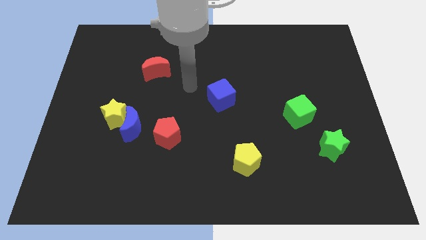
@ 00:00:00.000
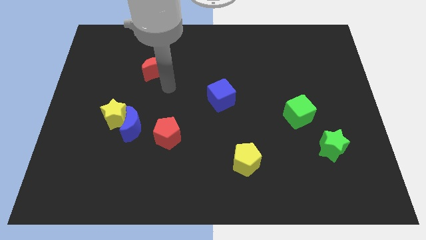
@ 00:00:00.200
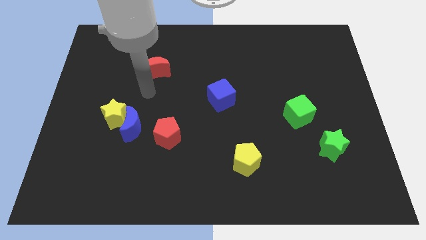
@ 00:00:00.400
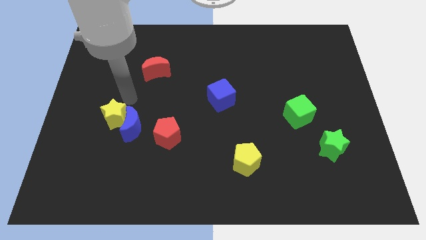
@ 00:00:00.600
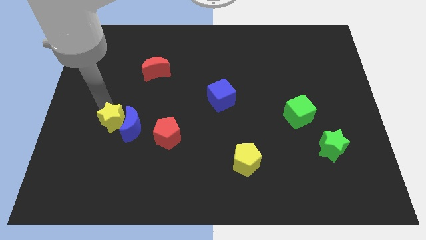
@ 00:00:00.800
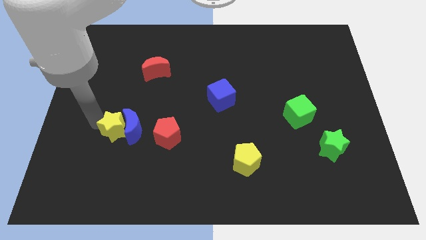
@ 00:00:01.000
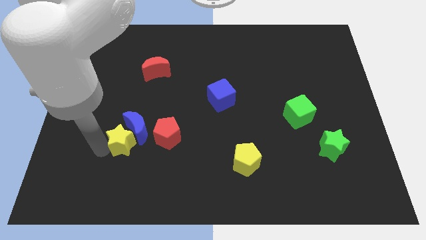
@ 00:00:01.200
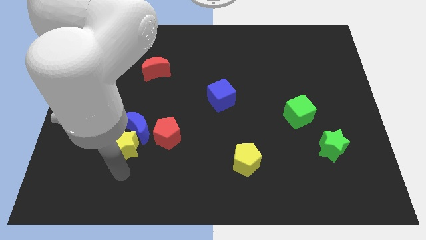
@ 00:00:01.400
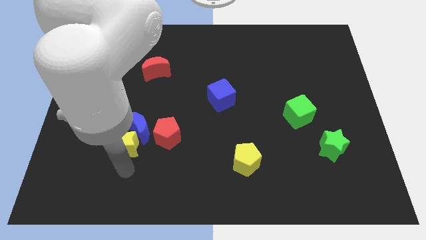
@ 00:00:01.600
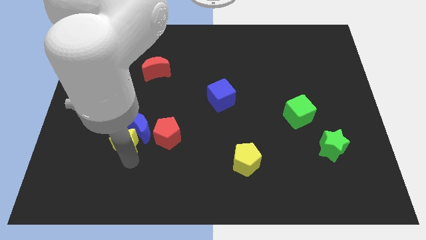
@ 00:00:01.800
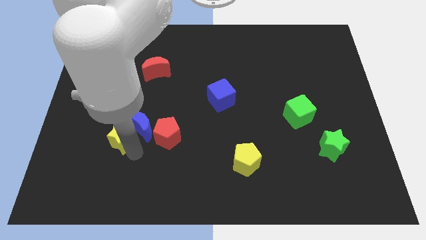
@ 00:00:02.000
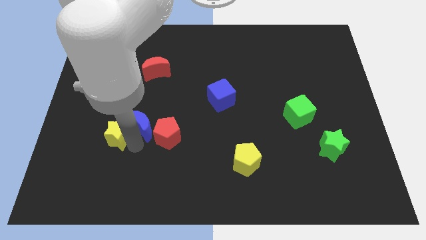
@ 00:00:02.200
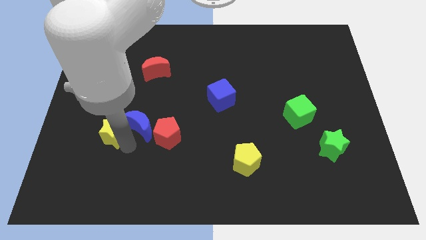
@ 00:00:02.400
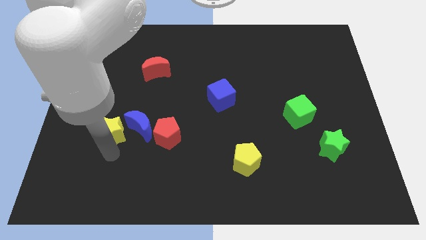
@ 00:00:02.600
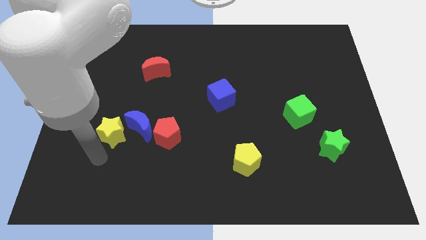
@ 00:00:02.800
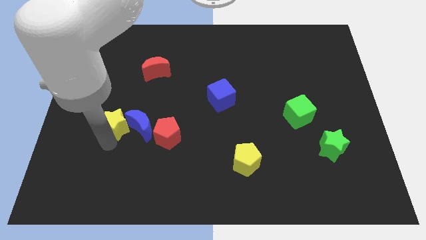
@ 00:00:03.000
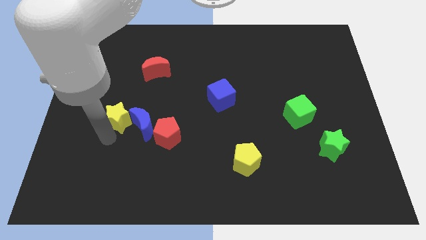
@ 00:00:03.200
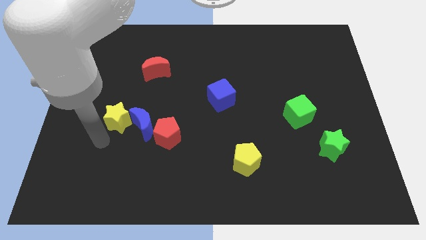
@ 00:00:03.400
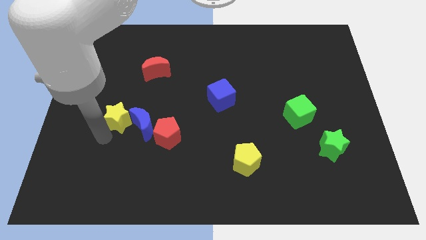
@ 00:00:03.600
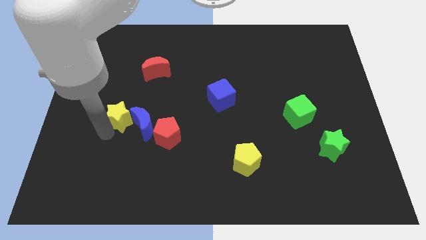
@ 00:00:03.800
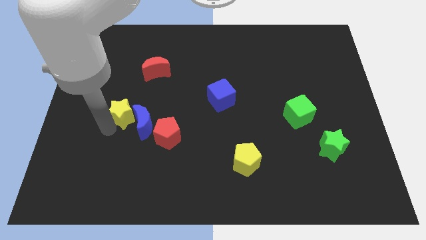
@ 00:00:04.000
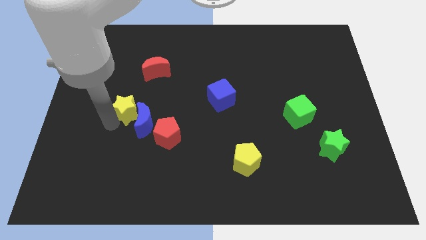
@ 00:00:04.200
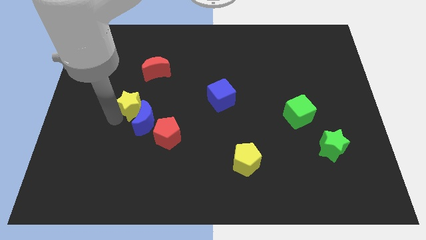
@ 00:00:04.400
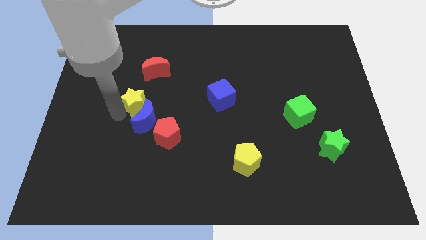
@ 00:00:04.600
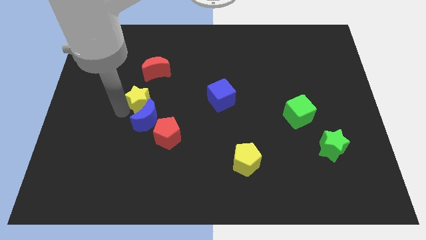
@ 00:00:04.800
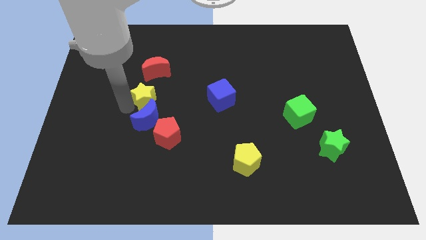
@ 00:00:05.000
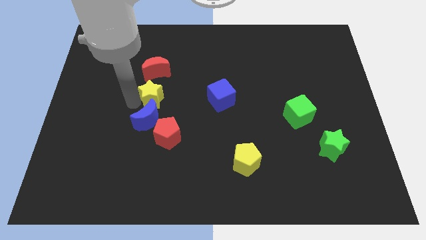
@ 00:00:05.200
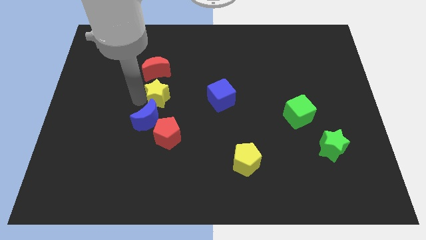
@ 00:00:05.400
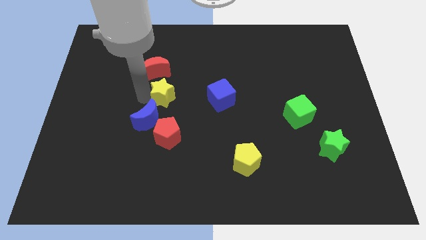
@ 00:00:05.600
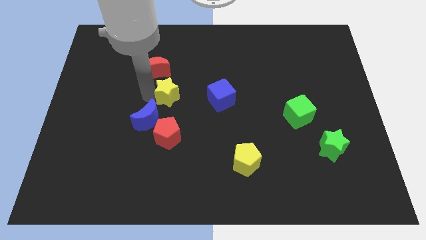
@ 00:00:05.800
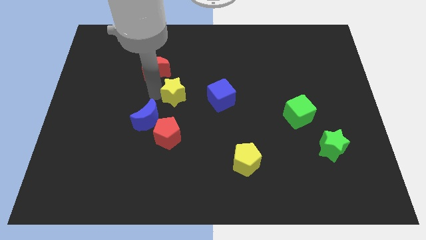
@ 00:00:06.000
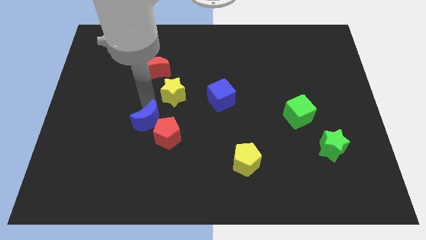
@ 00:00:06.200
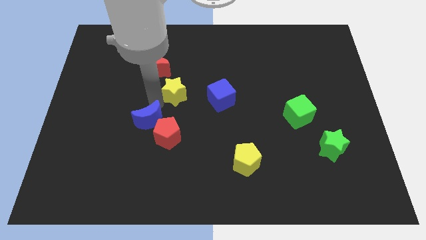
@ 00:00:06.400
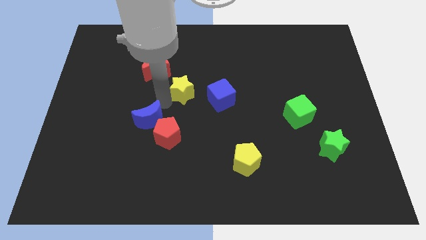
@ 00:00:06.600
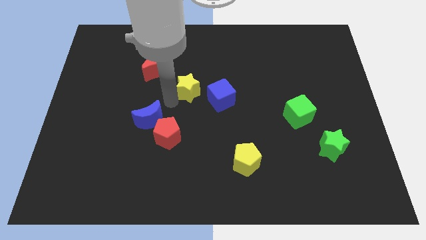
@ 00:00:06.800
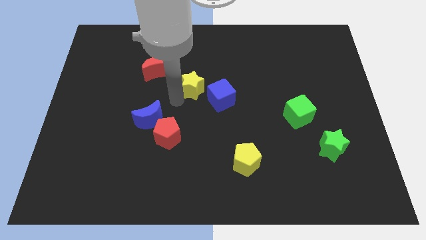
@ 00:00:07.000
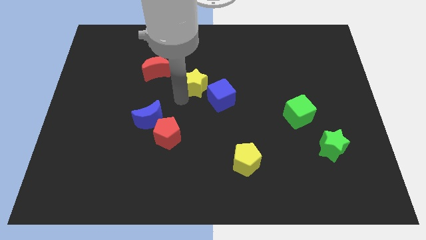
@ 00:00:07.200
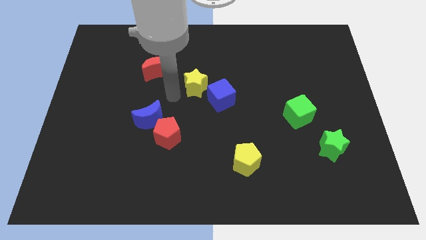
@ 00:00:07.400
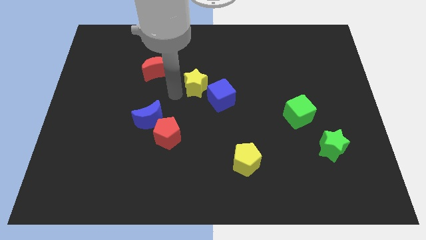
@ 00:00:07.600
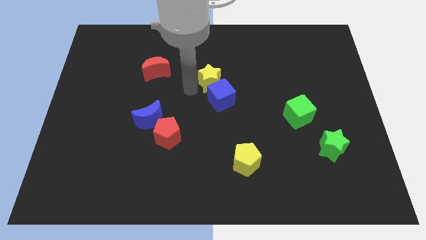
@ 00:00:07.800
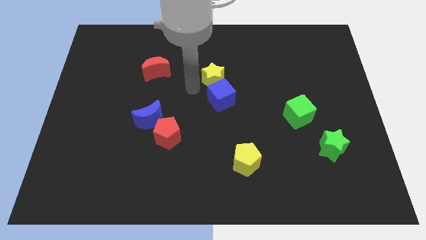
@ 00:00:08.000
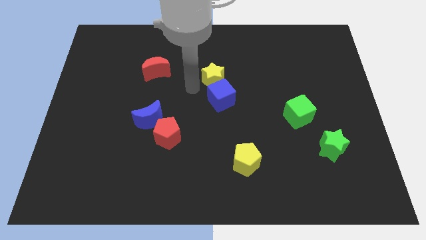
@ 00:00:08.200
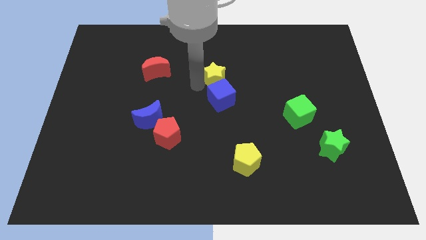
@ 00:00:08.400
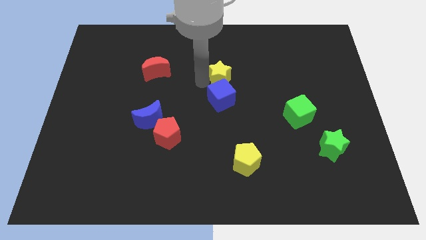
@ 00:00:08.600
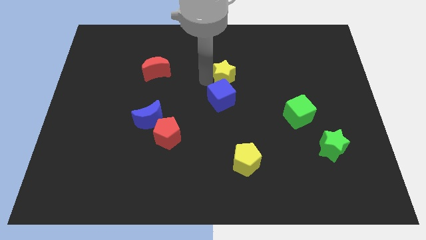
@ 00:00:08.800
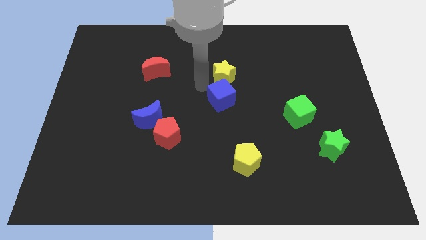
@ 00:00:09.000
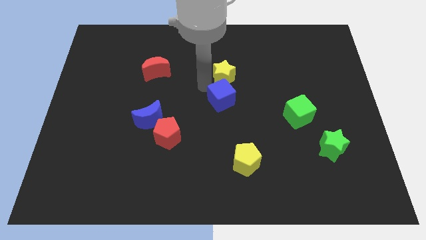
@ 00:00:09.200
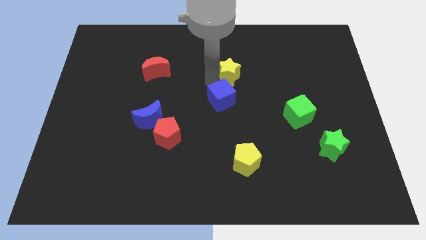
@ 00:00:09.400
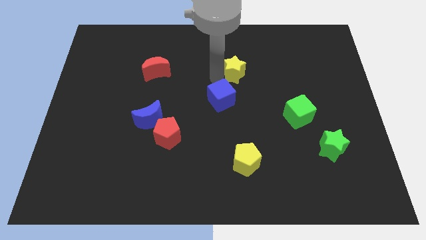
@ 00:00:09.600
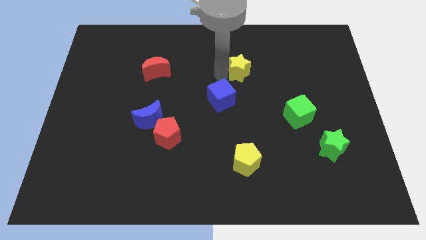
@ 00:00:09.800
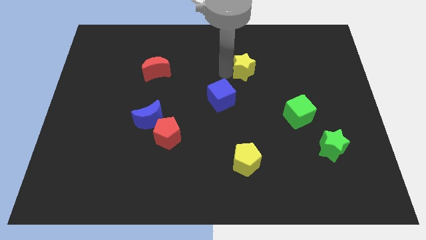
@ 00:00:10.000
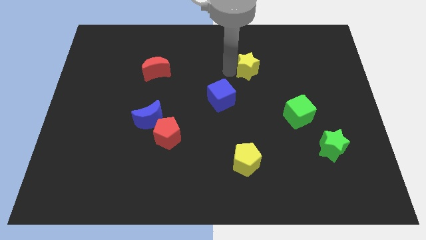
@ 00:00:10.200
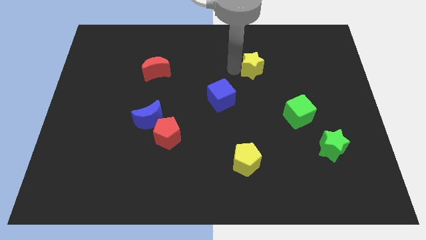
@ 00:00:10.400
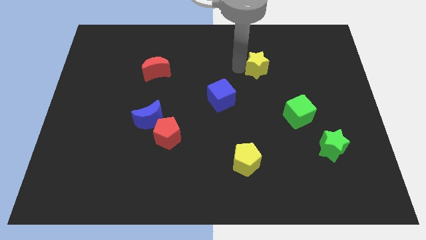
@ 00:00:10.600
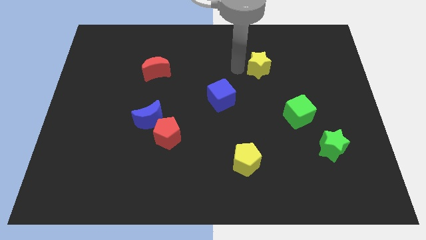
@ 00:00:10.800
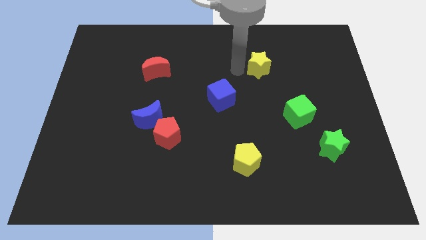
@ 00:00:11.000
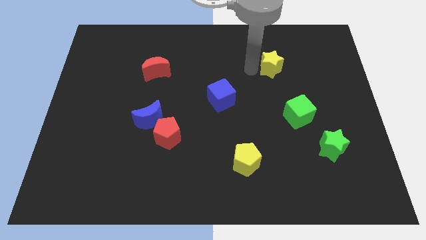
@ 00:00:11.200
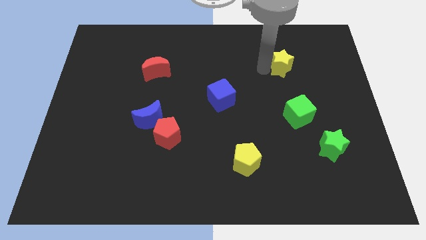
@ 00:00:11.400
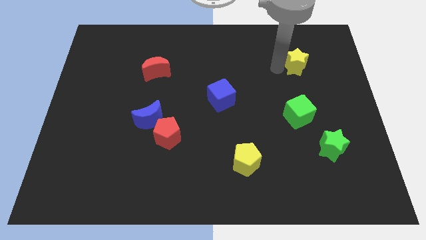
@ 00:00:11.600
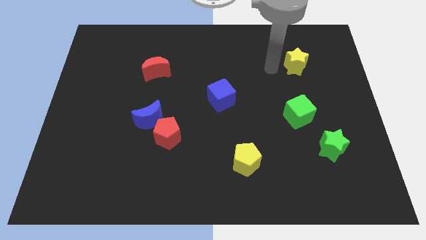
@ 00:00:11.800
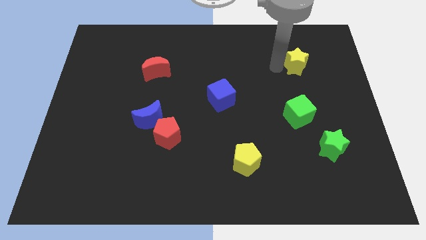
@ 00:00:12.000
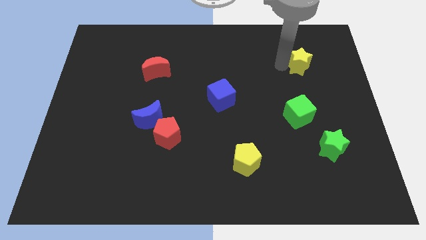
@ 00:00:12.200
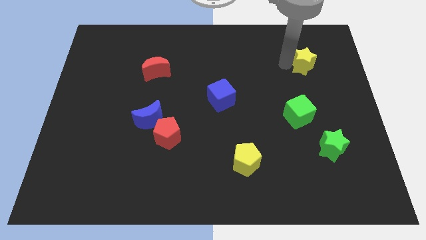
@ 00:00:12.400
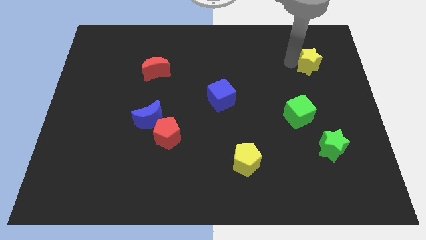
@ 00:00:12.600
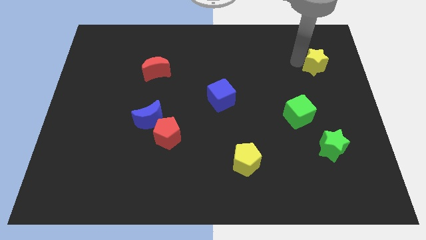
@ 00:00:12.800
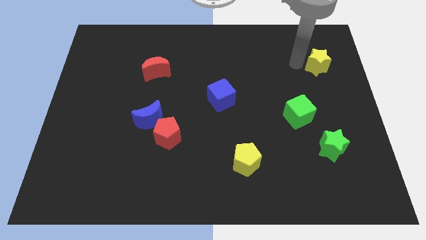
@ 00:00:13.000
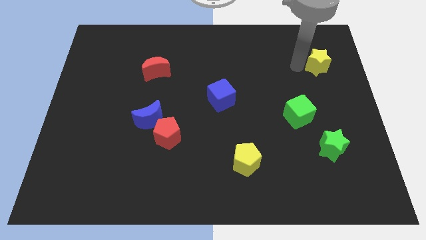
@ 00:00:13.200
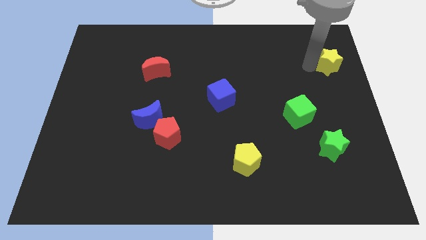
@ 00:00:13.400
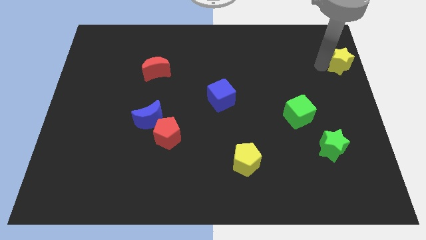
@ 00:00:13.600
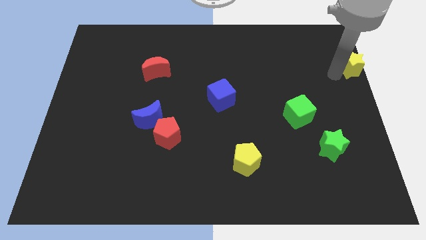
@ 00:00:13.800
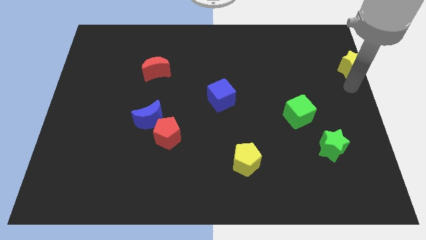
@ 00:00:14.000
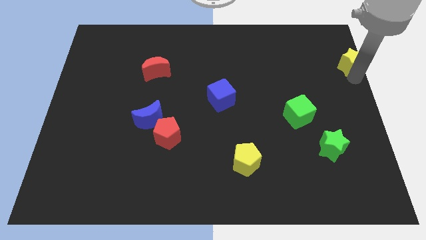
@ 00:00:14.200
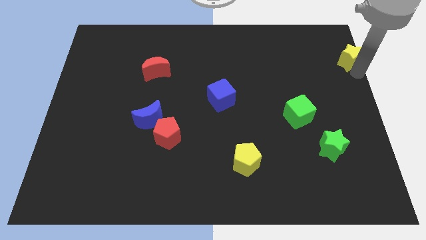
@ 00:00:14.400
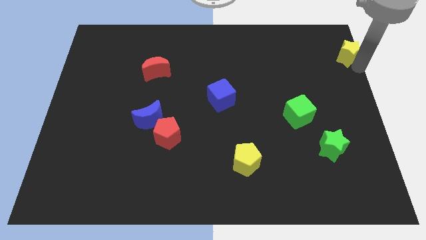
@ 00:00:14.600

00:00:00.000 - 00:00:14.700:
move the yellow star to the top right corner
